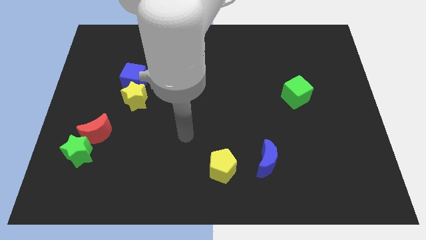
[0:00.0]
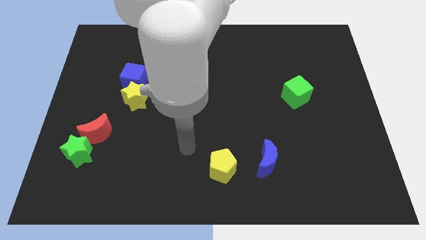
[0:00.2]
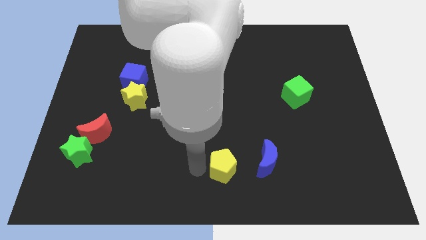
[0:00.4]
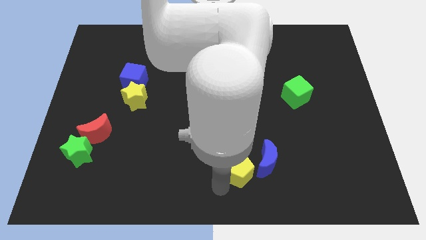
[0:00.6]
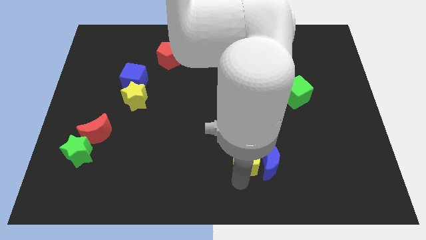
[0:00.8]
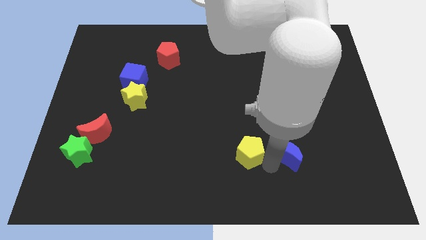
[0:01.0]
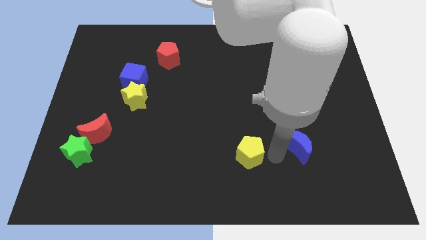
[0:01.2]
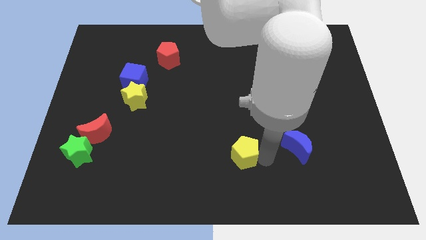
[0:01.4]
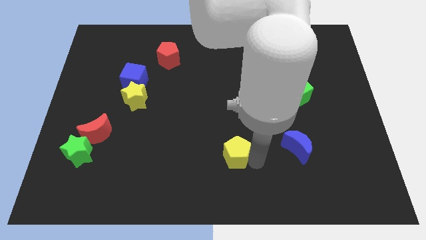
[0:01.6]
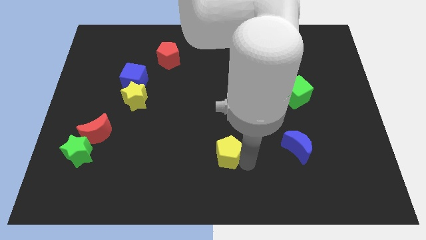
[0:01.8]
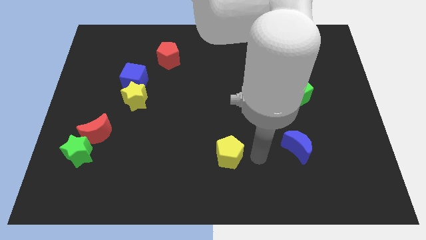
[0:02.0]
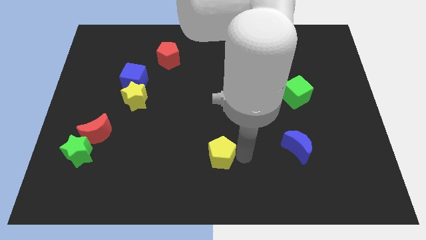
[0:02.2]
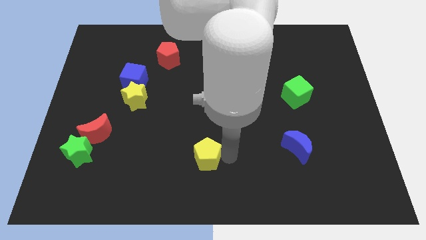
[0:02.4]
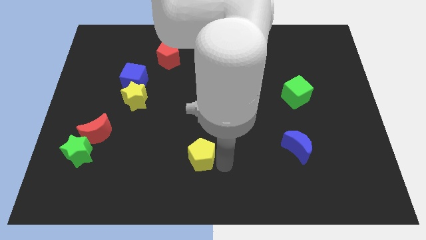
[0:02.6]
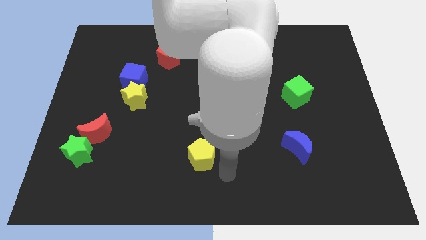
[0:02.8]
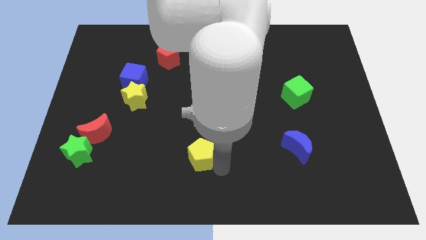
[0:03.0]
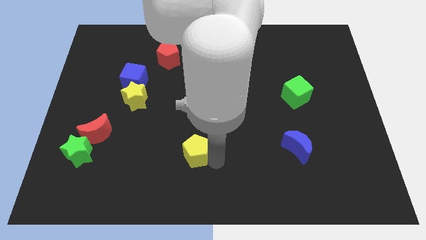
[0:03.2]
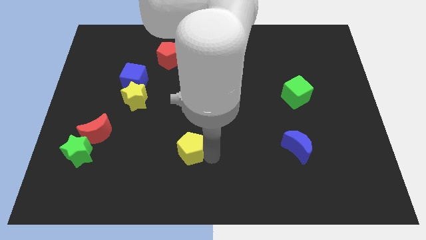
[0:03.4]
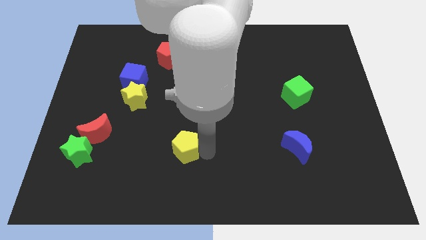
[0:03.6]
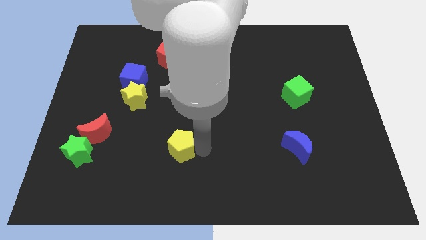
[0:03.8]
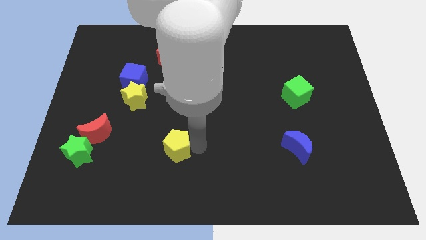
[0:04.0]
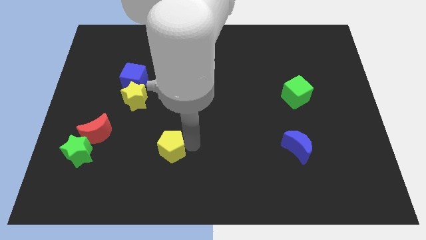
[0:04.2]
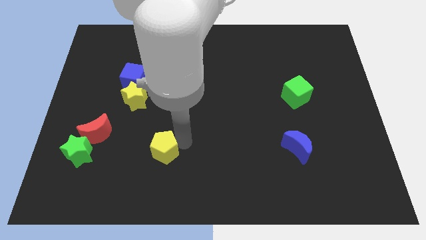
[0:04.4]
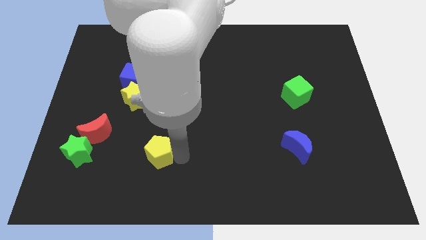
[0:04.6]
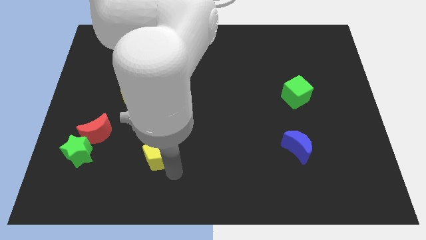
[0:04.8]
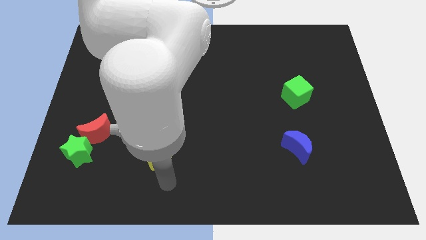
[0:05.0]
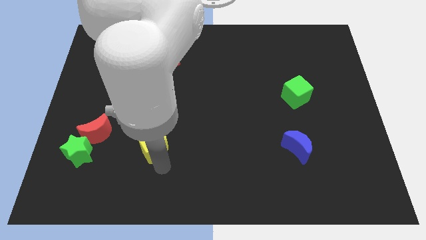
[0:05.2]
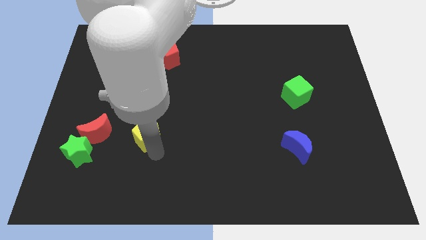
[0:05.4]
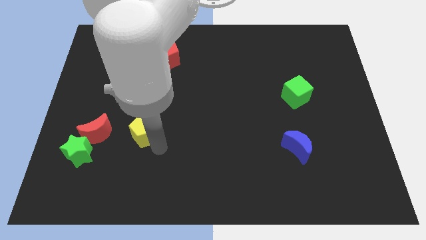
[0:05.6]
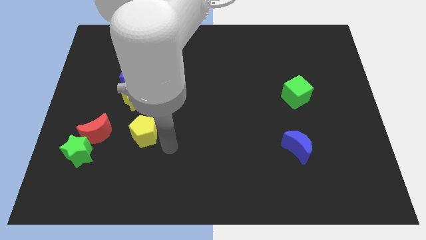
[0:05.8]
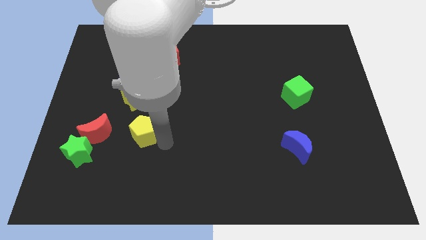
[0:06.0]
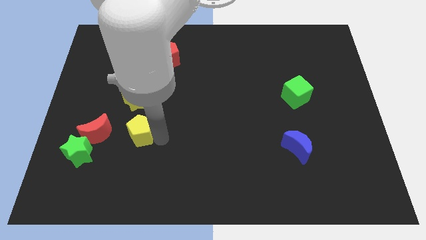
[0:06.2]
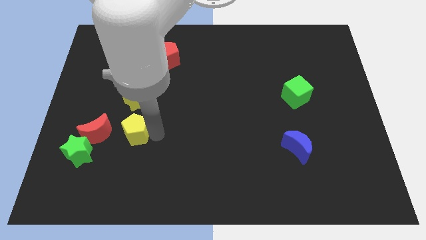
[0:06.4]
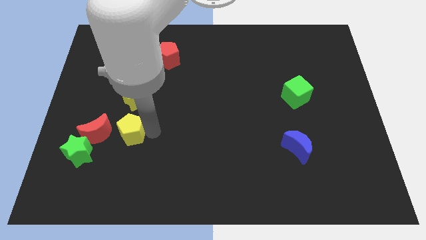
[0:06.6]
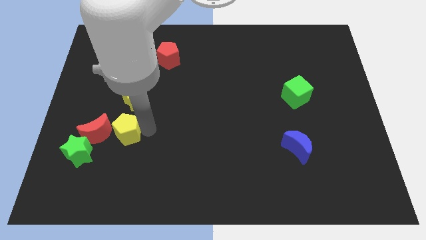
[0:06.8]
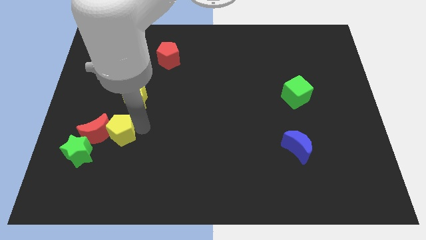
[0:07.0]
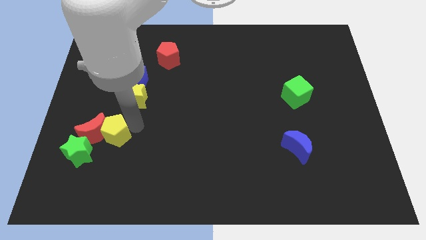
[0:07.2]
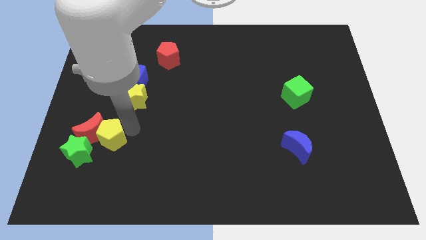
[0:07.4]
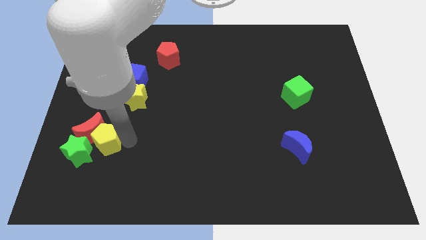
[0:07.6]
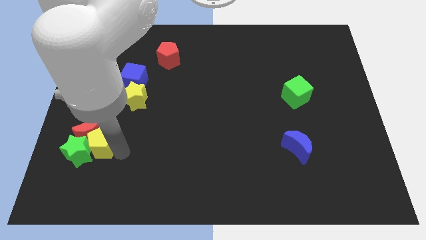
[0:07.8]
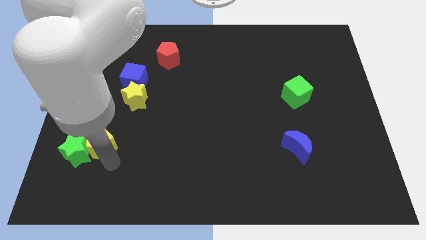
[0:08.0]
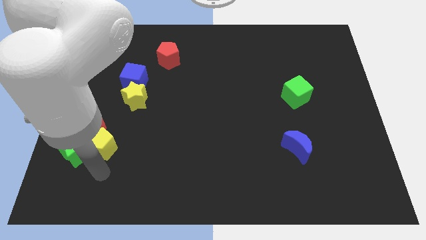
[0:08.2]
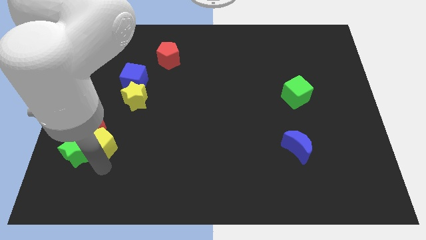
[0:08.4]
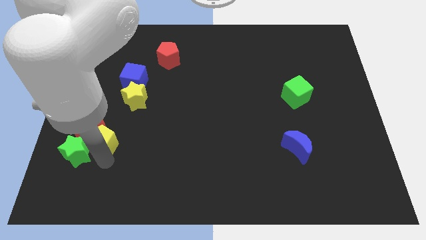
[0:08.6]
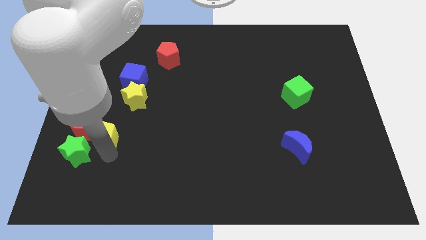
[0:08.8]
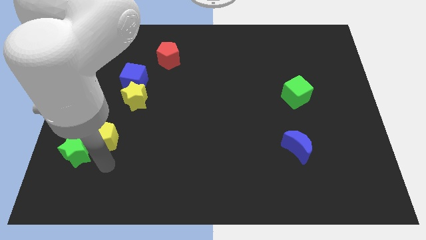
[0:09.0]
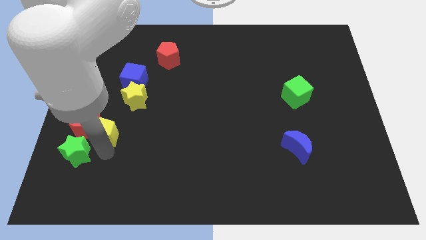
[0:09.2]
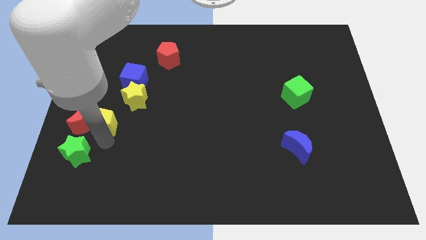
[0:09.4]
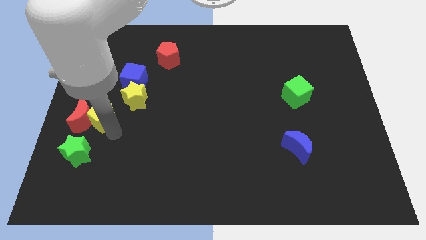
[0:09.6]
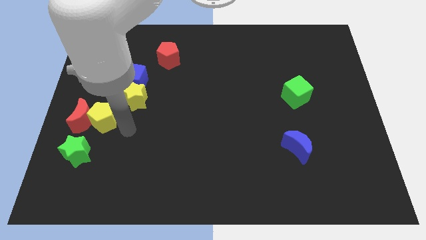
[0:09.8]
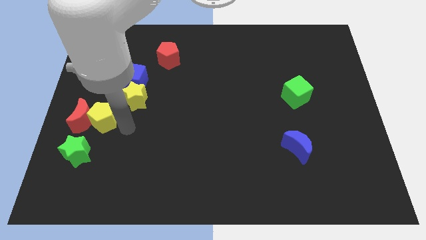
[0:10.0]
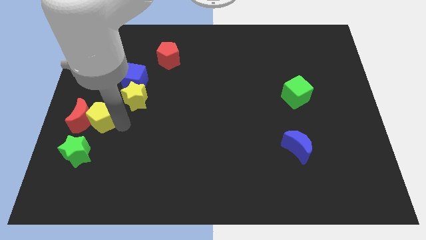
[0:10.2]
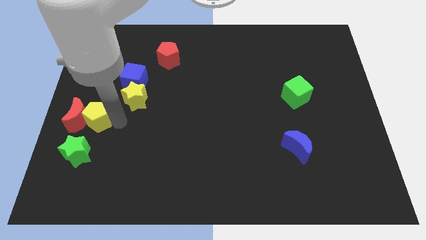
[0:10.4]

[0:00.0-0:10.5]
put the yellow pentagon to the left side

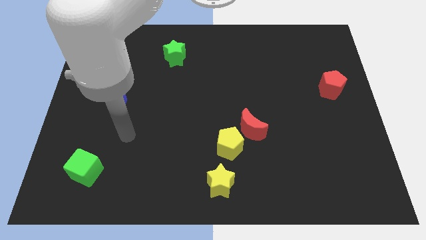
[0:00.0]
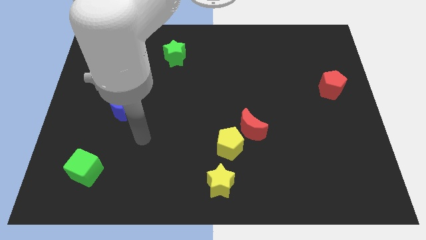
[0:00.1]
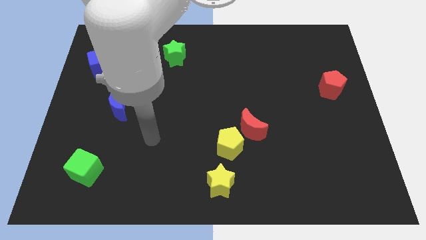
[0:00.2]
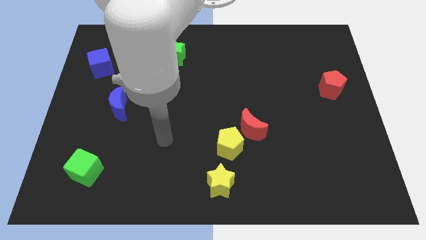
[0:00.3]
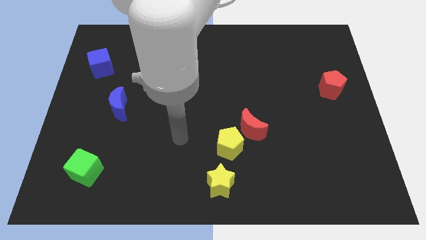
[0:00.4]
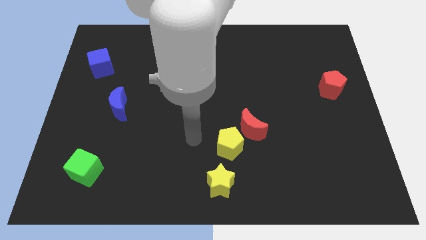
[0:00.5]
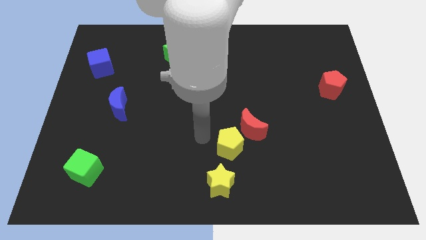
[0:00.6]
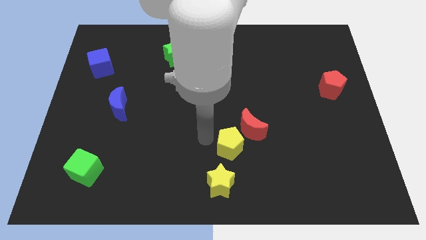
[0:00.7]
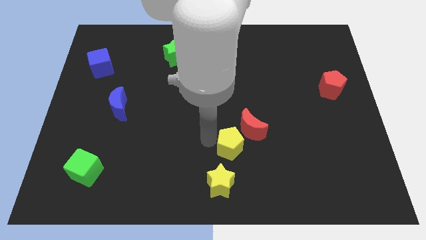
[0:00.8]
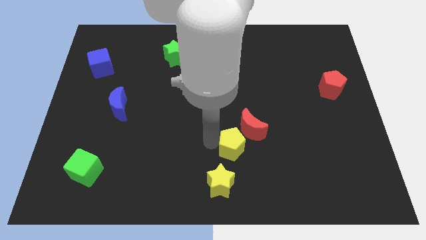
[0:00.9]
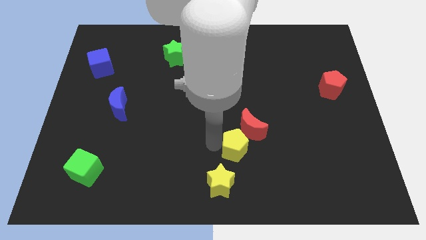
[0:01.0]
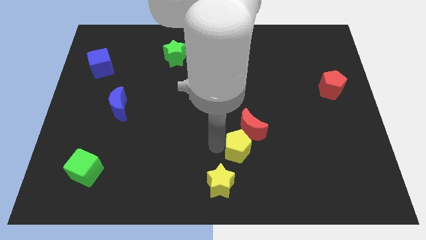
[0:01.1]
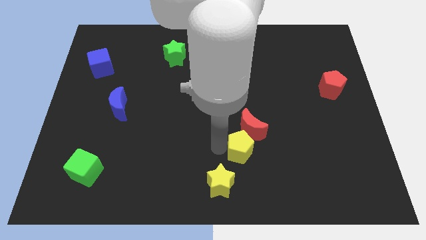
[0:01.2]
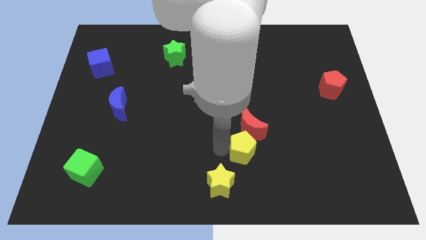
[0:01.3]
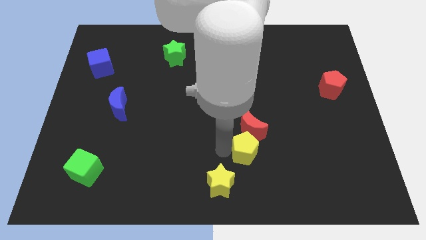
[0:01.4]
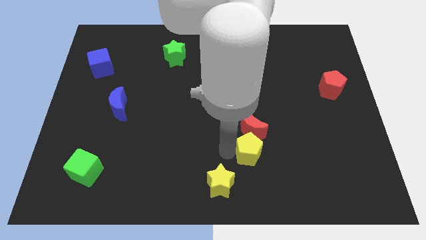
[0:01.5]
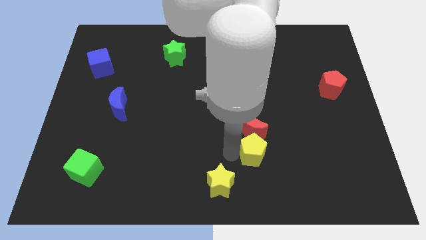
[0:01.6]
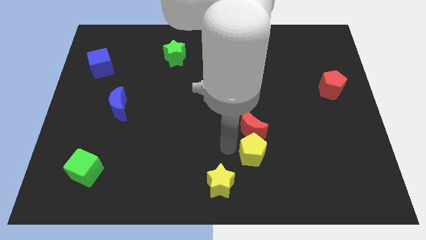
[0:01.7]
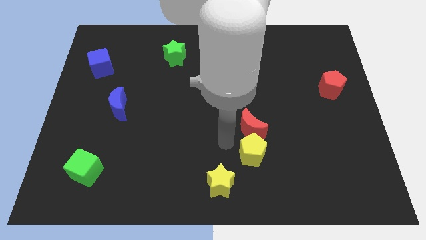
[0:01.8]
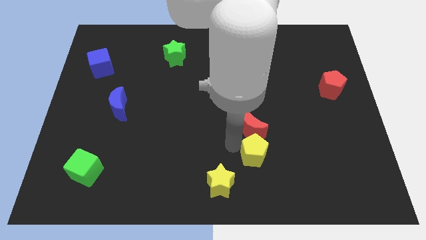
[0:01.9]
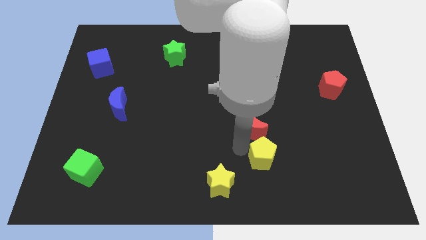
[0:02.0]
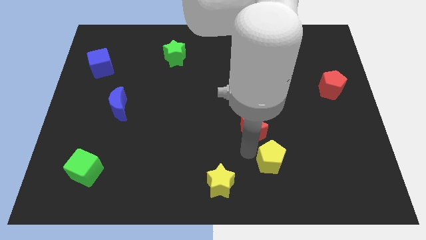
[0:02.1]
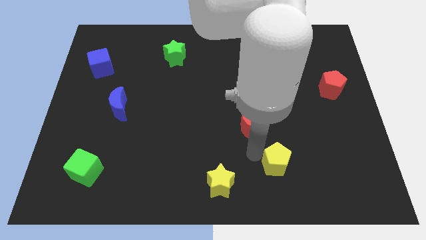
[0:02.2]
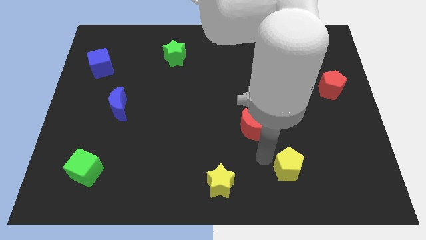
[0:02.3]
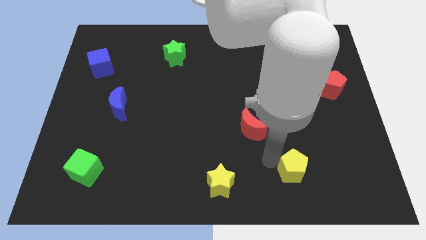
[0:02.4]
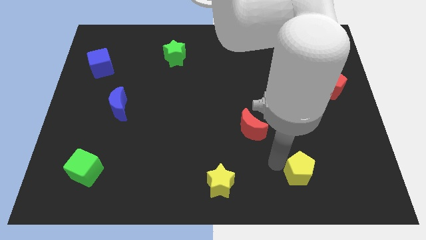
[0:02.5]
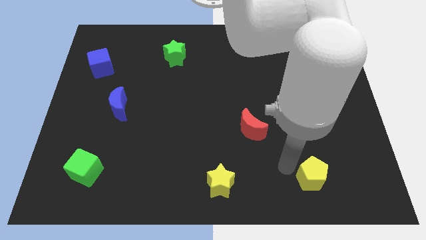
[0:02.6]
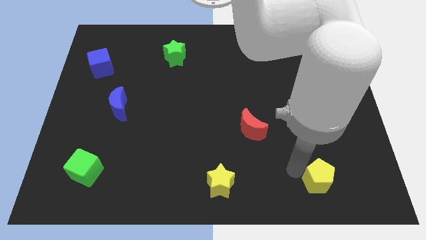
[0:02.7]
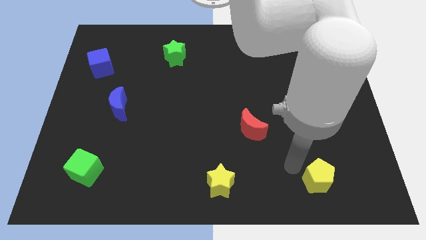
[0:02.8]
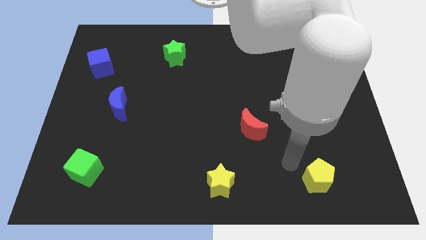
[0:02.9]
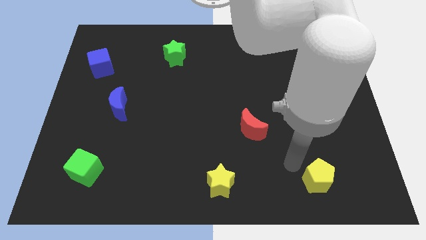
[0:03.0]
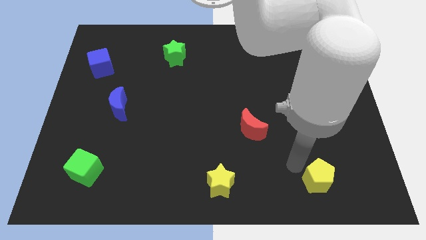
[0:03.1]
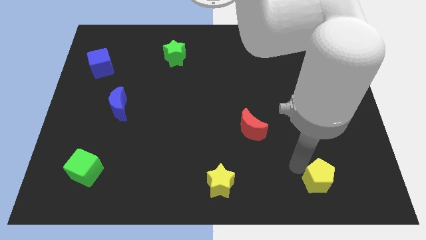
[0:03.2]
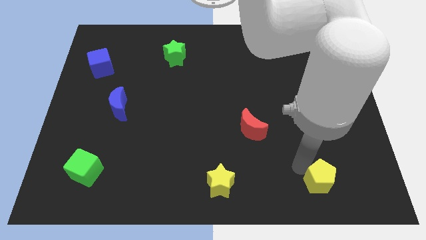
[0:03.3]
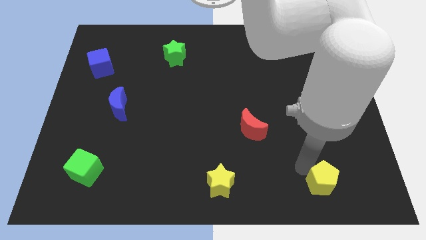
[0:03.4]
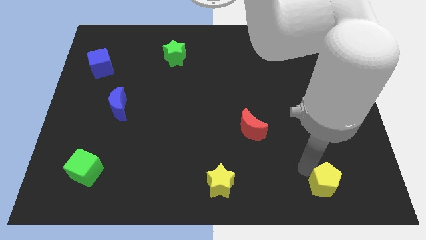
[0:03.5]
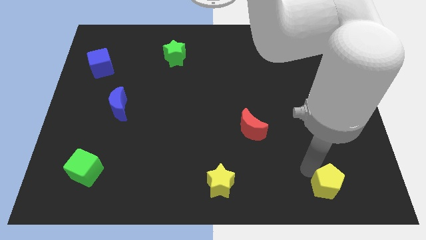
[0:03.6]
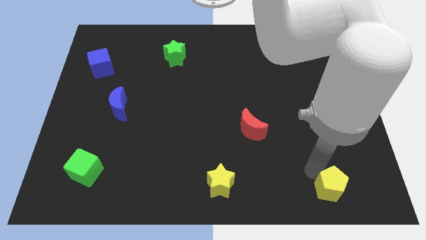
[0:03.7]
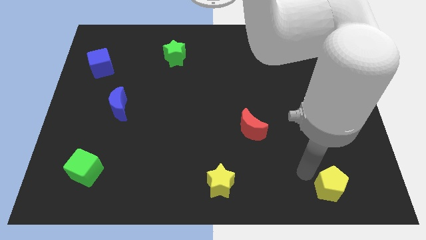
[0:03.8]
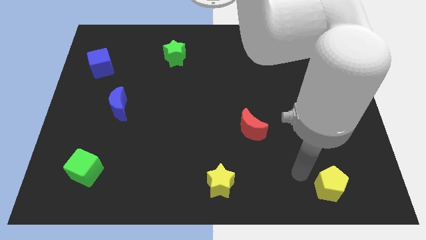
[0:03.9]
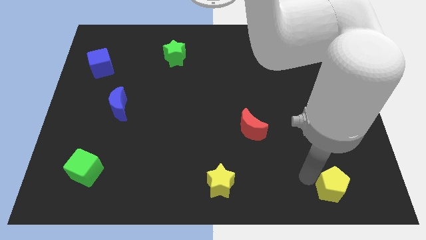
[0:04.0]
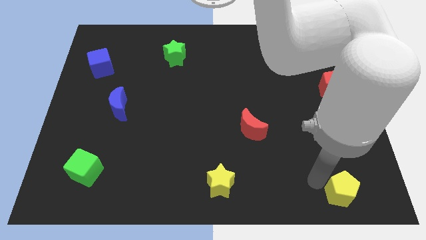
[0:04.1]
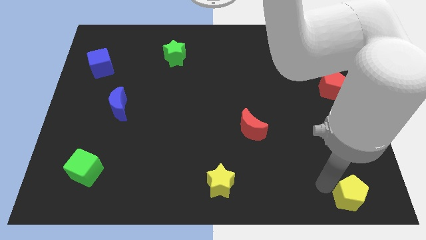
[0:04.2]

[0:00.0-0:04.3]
slide the yellow pentagon to the bottom right of the board
